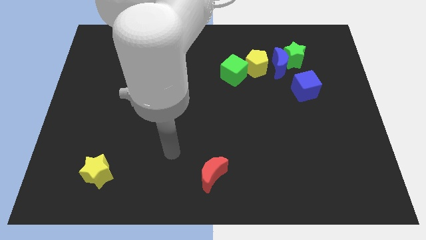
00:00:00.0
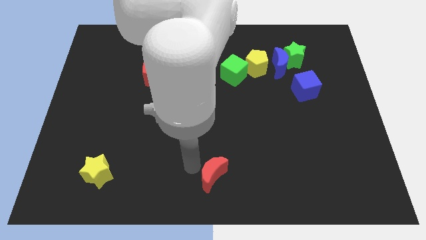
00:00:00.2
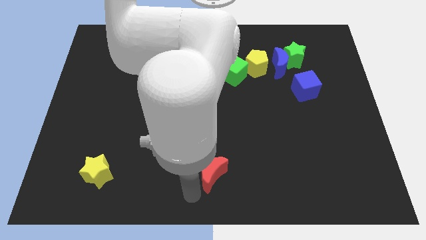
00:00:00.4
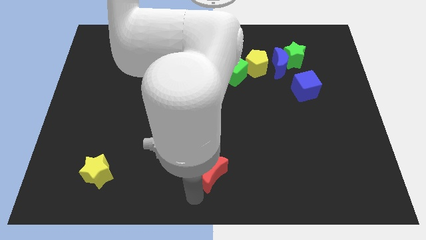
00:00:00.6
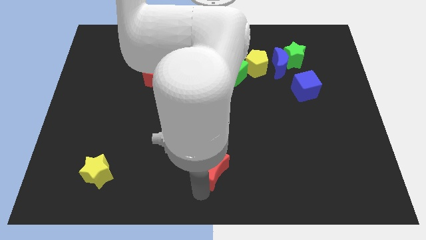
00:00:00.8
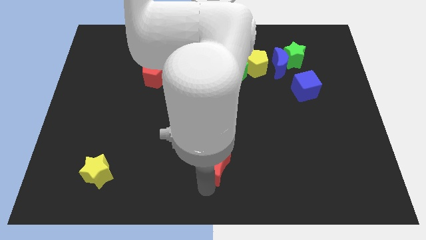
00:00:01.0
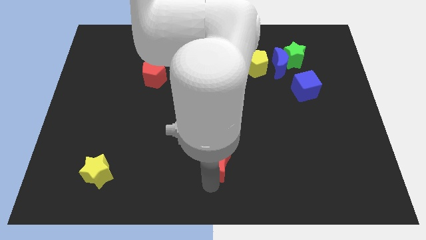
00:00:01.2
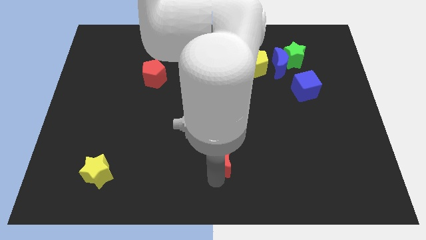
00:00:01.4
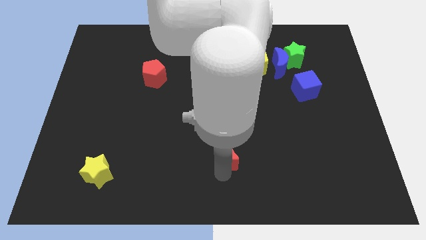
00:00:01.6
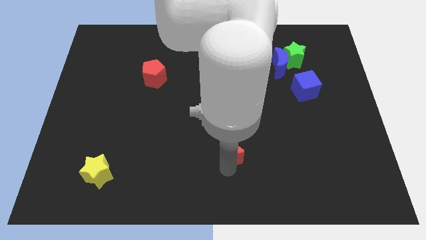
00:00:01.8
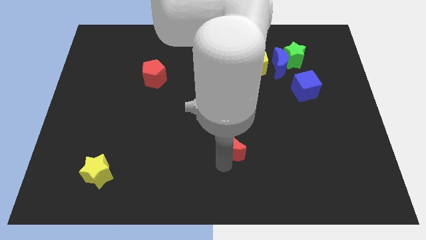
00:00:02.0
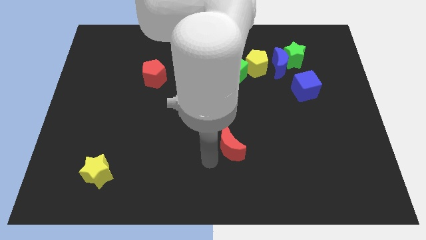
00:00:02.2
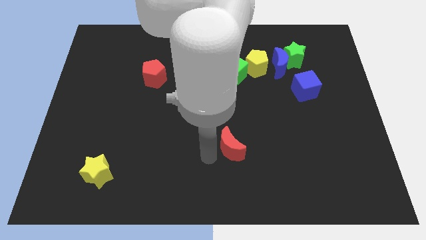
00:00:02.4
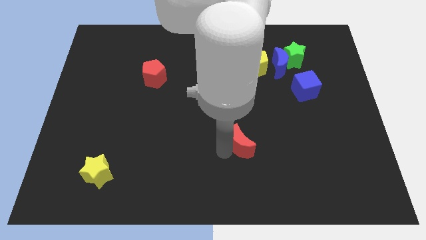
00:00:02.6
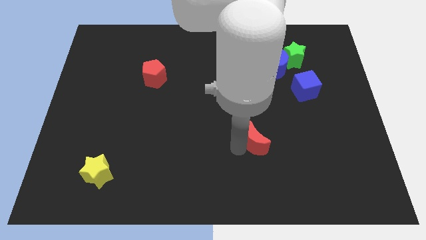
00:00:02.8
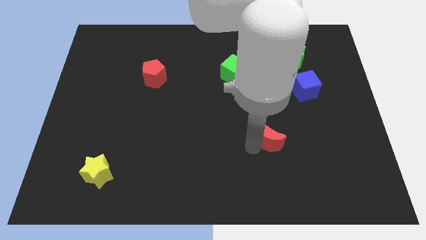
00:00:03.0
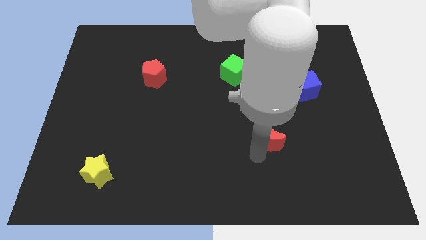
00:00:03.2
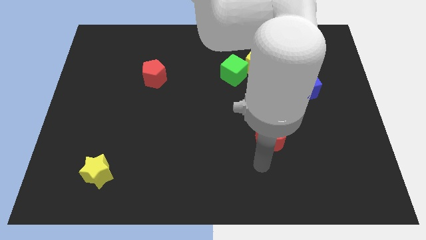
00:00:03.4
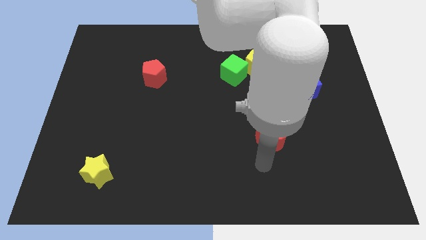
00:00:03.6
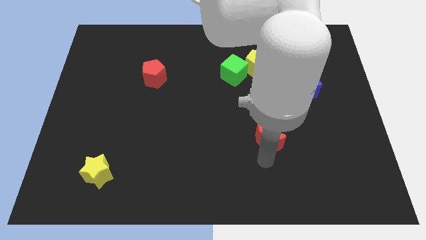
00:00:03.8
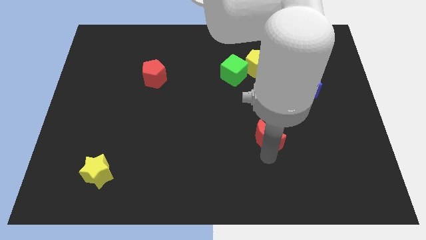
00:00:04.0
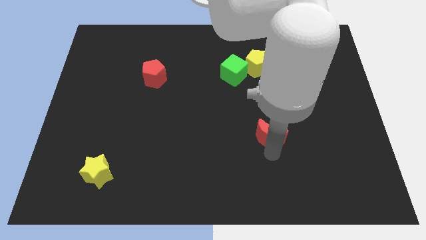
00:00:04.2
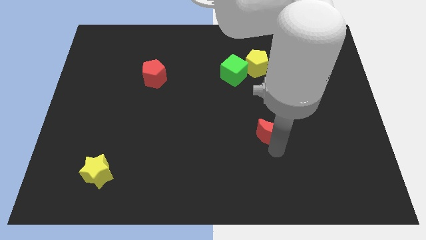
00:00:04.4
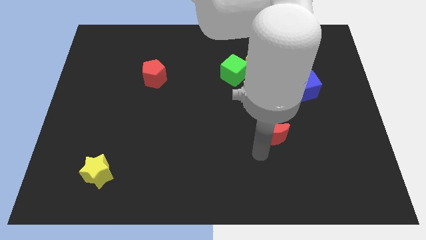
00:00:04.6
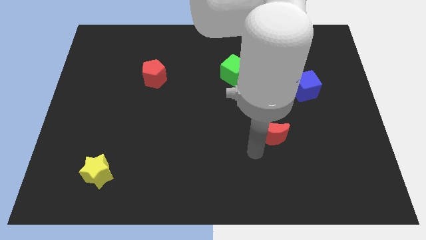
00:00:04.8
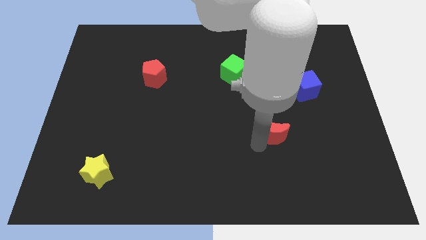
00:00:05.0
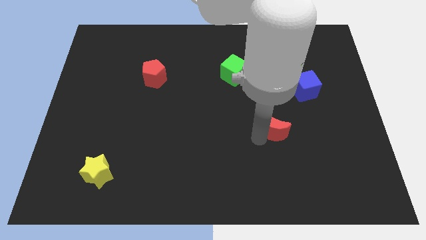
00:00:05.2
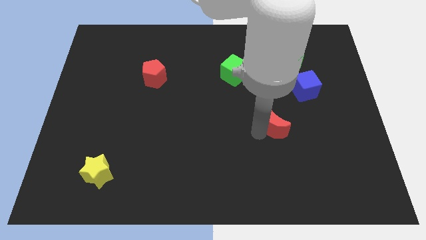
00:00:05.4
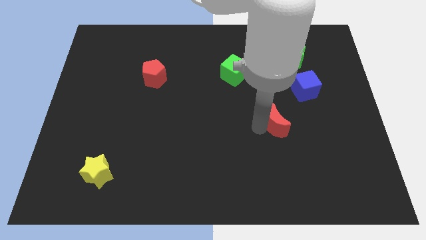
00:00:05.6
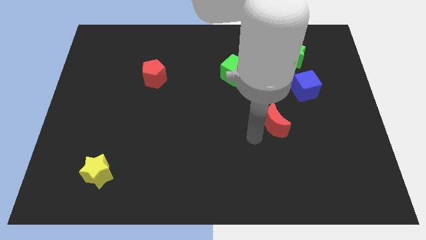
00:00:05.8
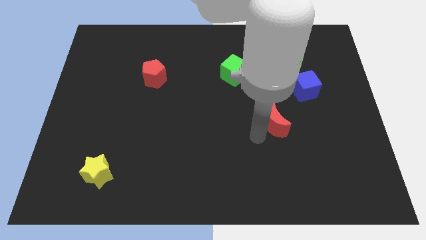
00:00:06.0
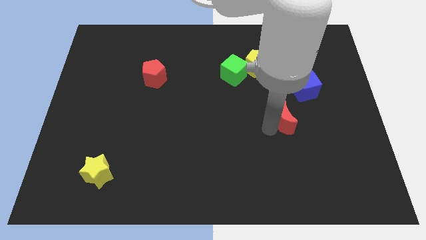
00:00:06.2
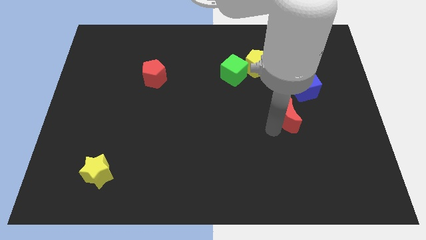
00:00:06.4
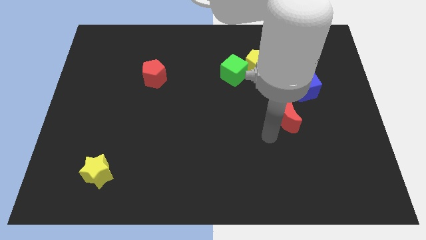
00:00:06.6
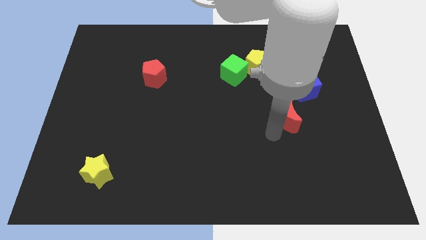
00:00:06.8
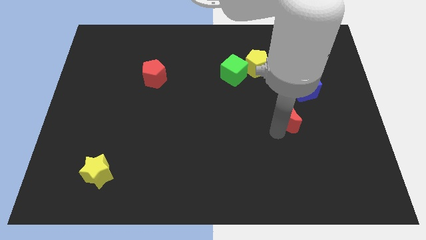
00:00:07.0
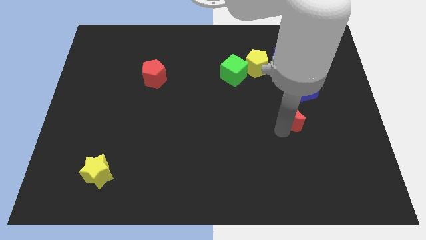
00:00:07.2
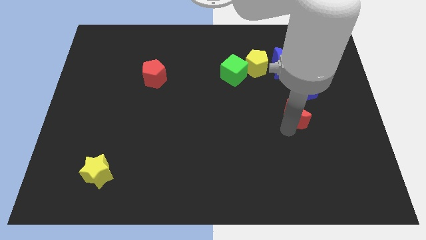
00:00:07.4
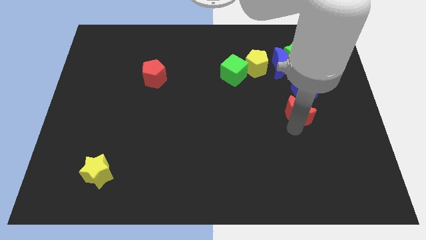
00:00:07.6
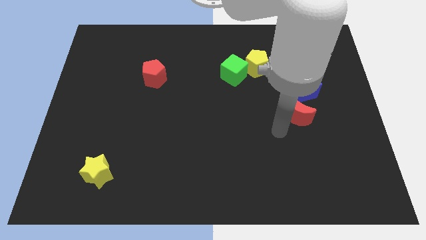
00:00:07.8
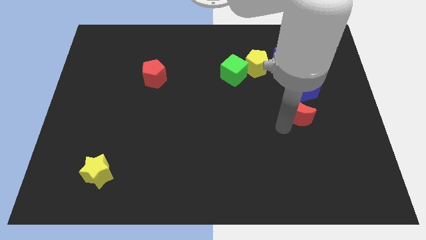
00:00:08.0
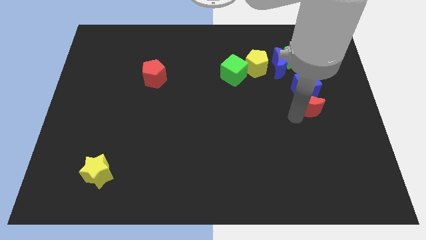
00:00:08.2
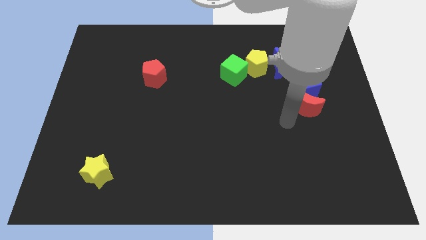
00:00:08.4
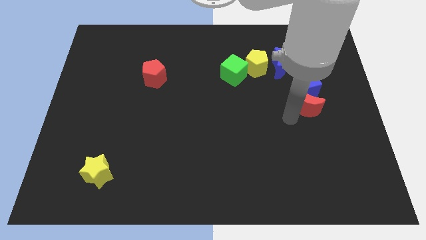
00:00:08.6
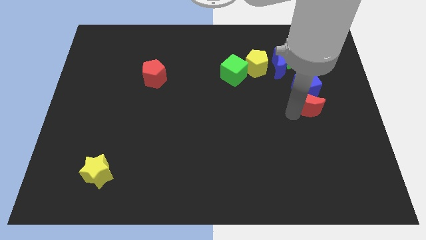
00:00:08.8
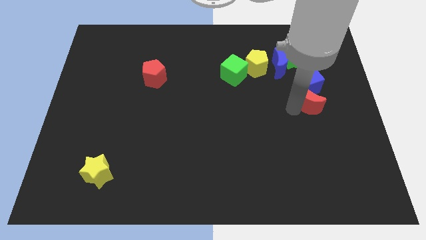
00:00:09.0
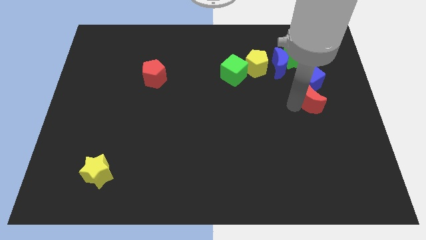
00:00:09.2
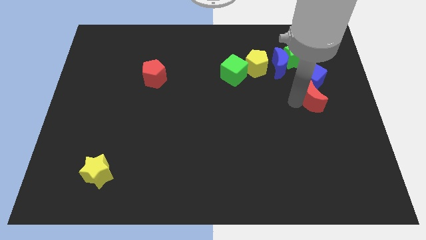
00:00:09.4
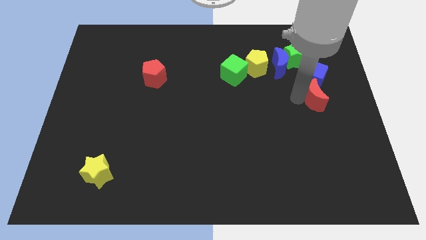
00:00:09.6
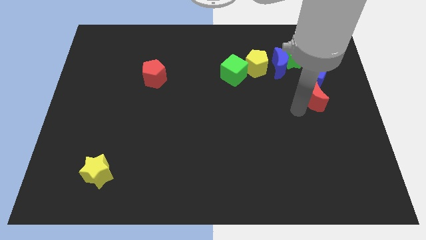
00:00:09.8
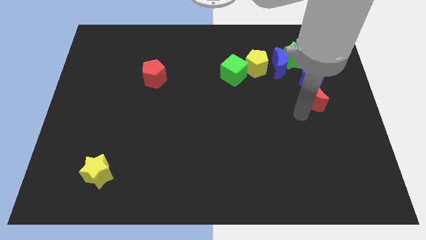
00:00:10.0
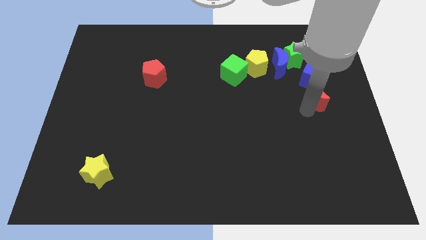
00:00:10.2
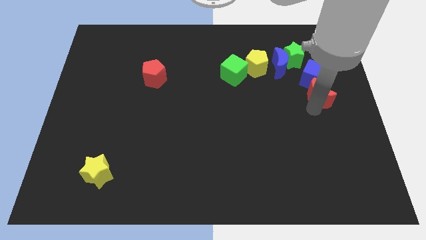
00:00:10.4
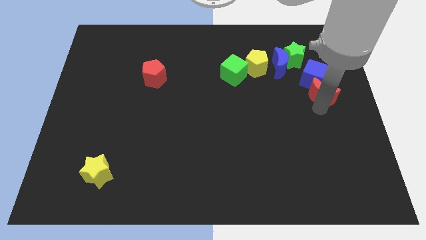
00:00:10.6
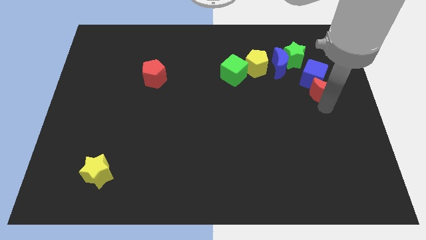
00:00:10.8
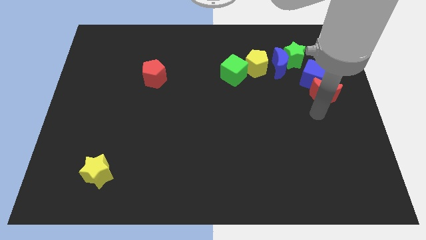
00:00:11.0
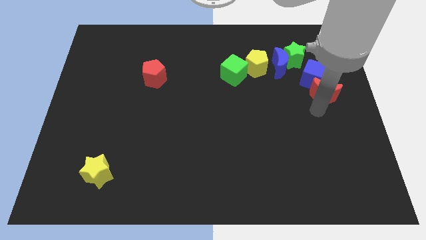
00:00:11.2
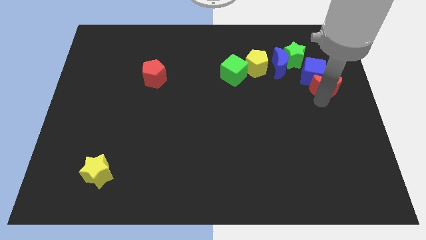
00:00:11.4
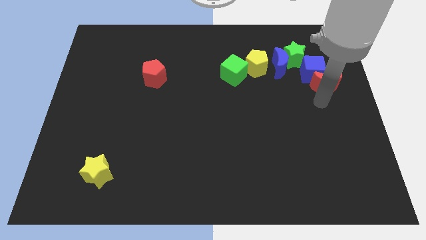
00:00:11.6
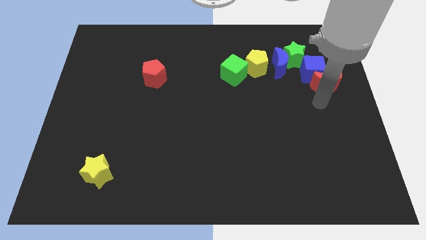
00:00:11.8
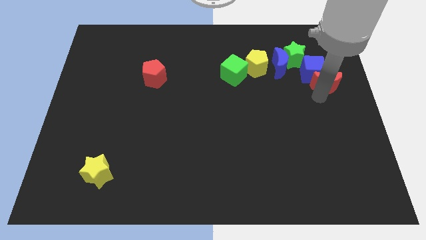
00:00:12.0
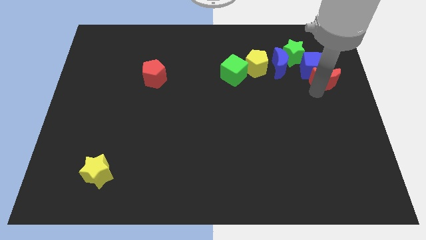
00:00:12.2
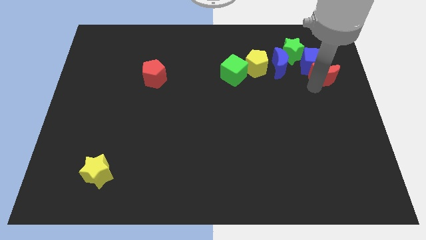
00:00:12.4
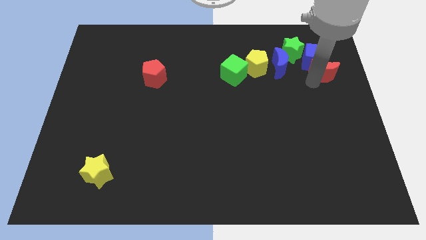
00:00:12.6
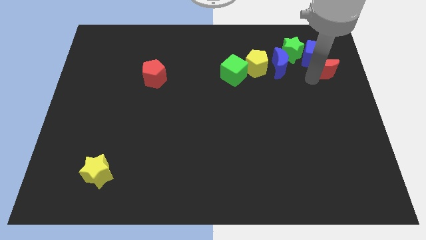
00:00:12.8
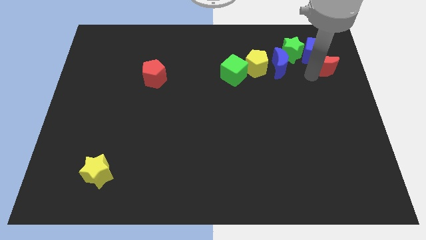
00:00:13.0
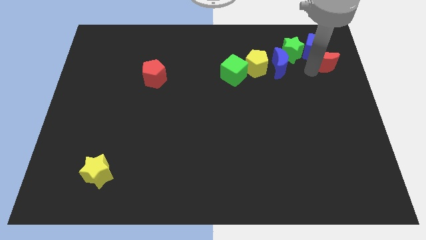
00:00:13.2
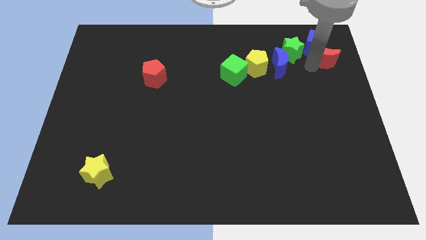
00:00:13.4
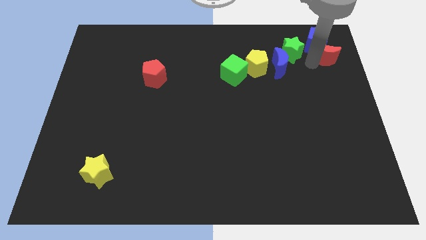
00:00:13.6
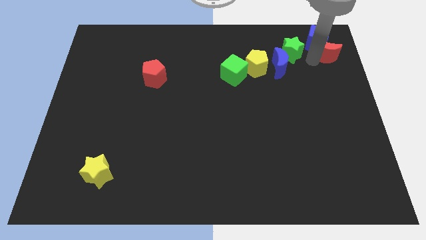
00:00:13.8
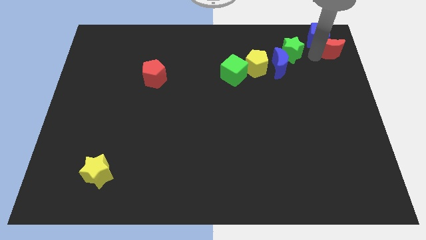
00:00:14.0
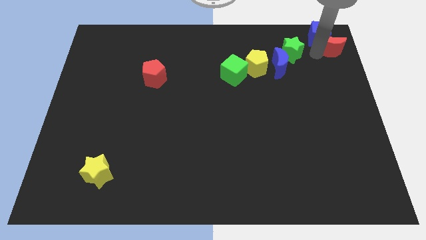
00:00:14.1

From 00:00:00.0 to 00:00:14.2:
move the red moon to the top right
